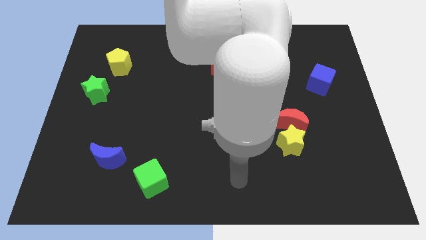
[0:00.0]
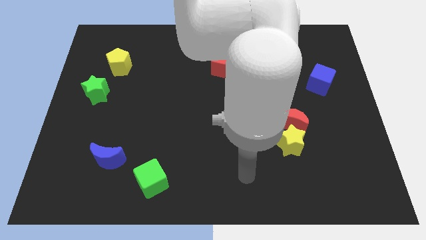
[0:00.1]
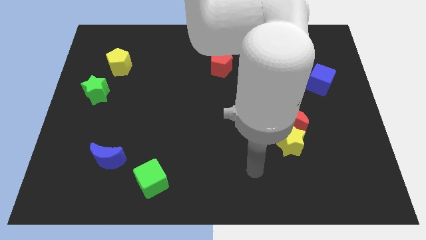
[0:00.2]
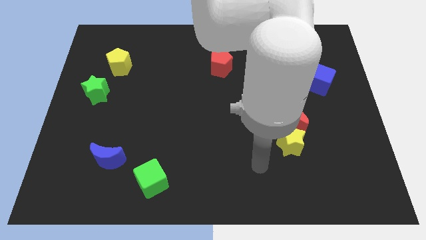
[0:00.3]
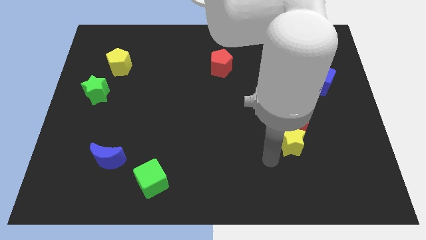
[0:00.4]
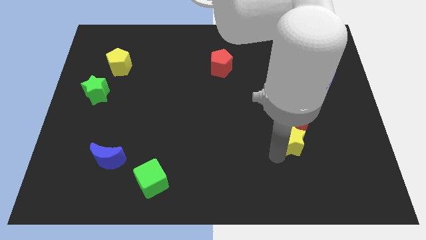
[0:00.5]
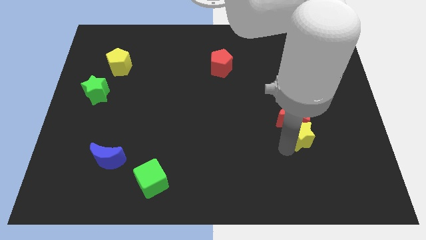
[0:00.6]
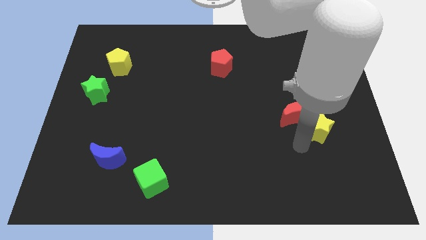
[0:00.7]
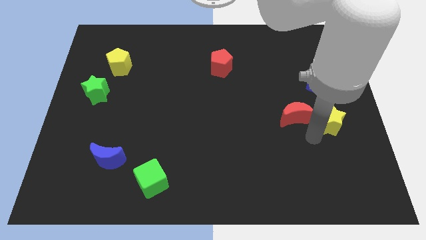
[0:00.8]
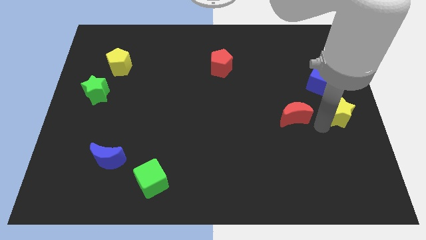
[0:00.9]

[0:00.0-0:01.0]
move the red moon away from the yellow star

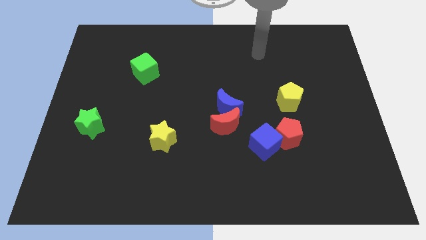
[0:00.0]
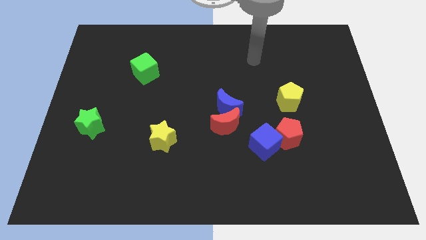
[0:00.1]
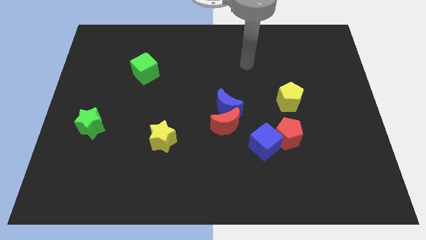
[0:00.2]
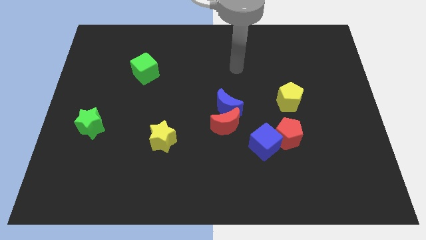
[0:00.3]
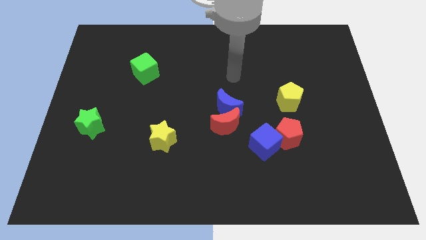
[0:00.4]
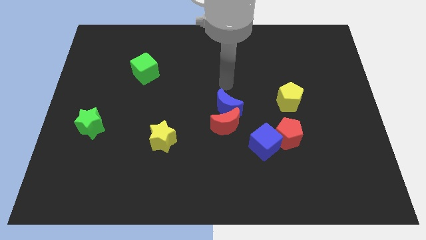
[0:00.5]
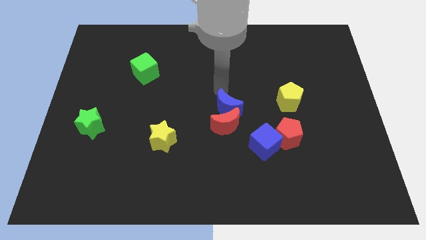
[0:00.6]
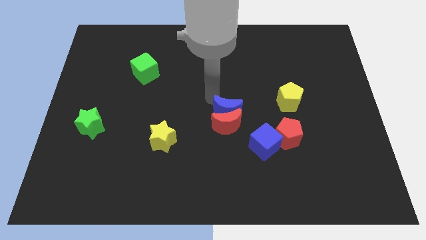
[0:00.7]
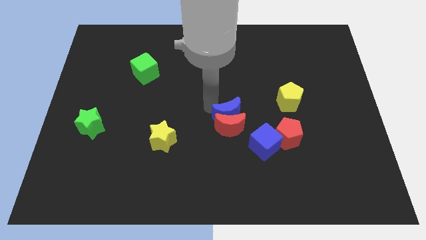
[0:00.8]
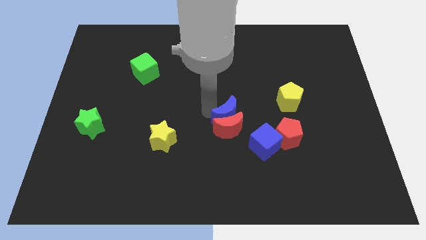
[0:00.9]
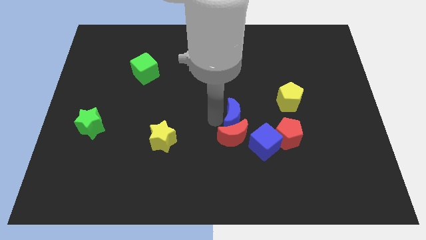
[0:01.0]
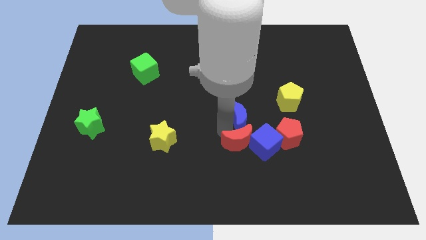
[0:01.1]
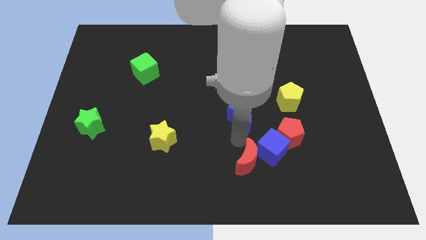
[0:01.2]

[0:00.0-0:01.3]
move the blue moon away from the red moon

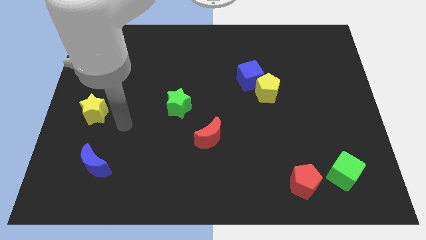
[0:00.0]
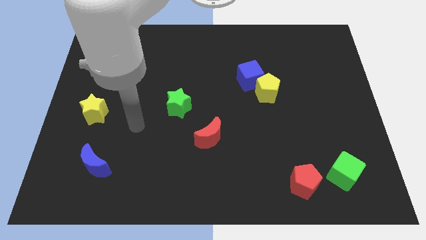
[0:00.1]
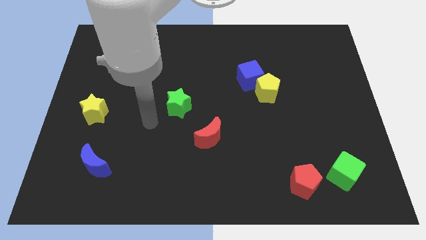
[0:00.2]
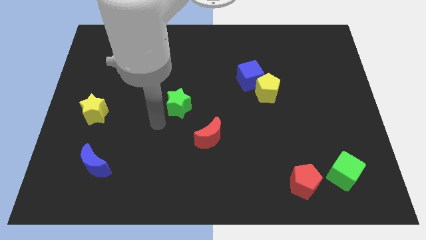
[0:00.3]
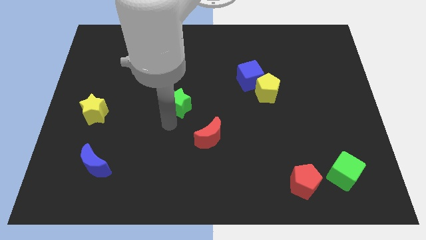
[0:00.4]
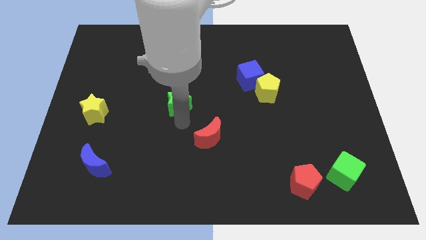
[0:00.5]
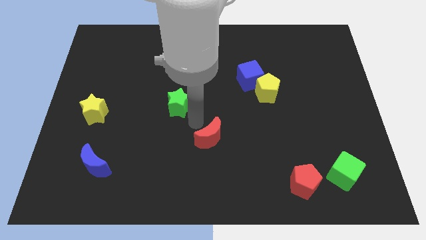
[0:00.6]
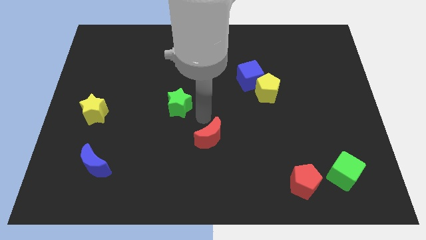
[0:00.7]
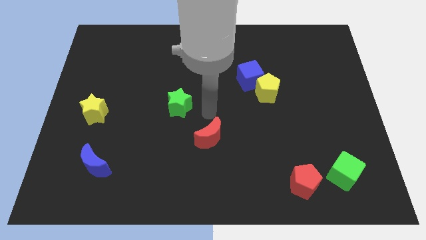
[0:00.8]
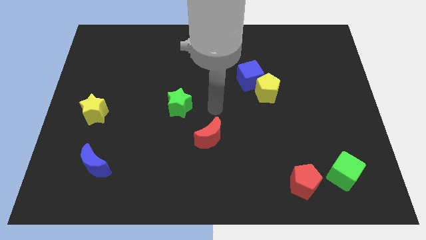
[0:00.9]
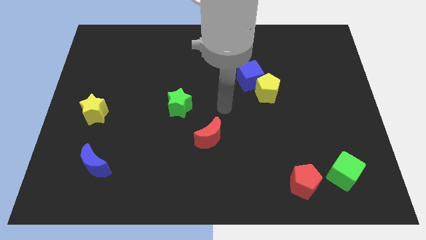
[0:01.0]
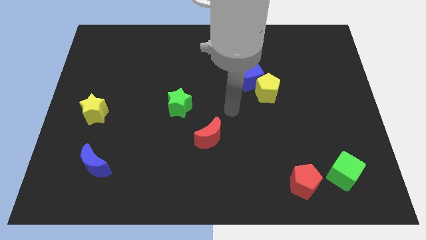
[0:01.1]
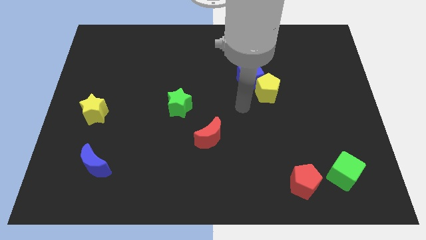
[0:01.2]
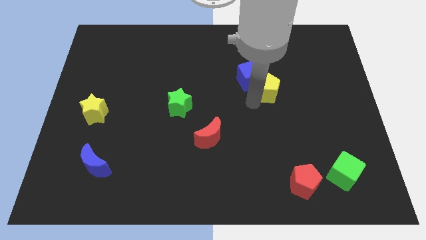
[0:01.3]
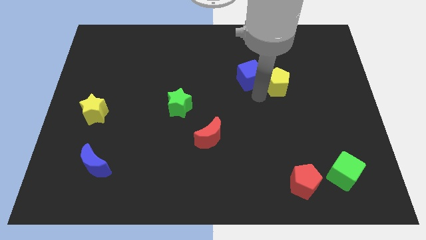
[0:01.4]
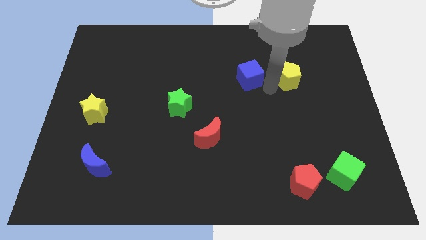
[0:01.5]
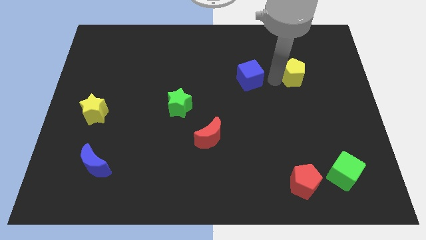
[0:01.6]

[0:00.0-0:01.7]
pull the blue cube apart from the yellow pentagon

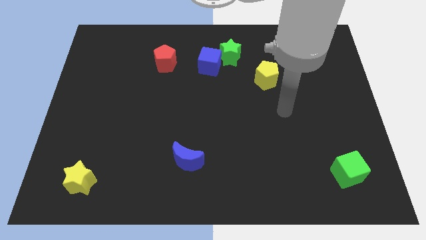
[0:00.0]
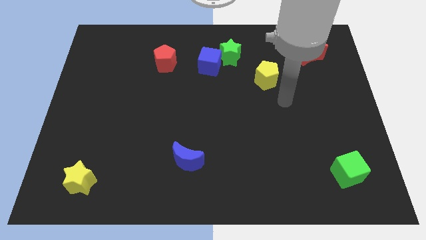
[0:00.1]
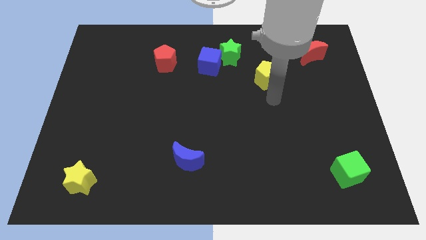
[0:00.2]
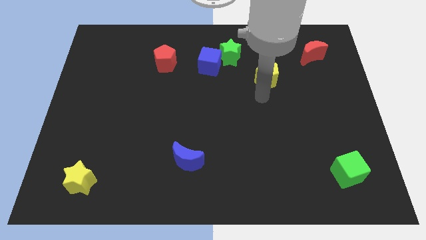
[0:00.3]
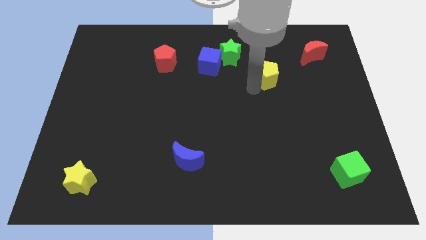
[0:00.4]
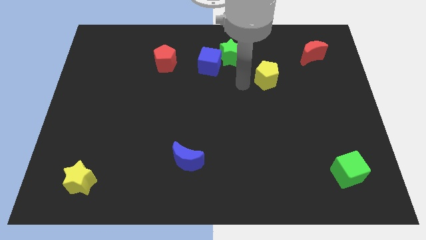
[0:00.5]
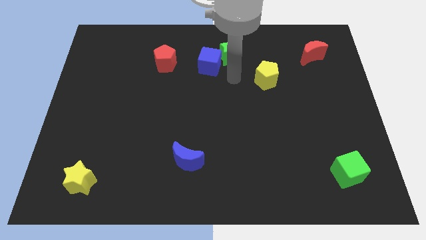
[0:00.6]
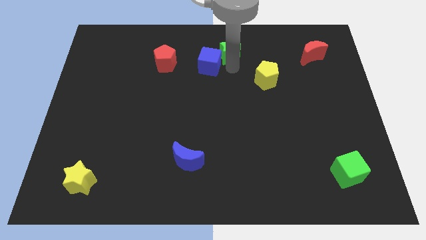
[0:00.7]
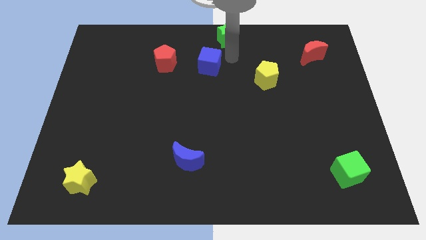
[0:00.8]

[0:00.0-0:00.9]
pull the blue cube apart from the green star

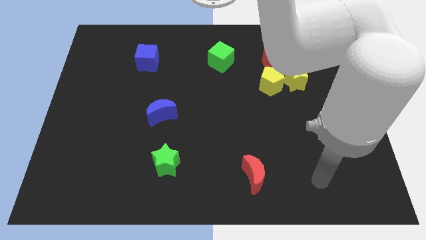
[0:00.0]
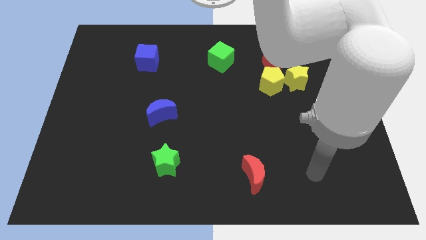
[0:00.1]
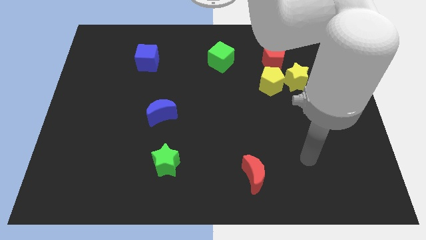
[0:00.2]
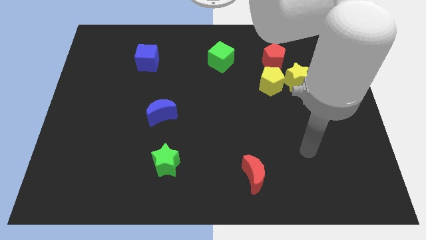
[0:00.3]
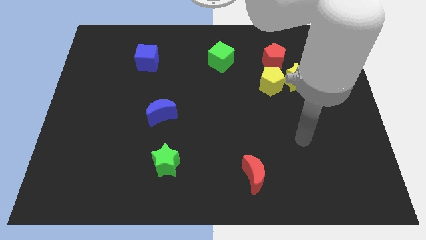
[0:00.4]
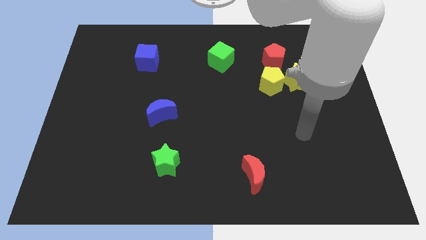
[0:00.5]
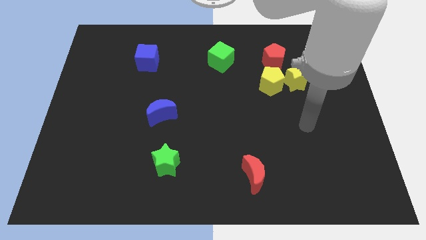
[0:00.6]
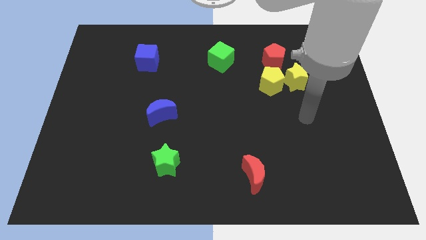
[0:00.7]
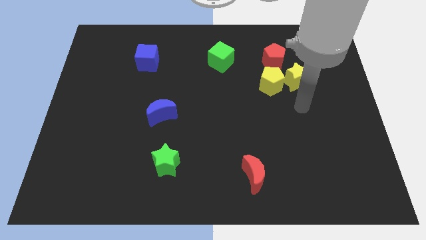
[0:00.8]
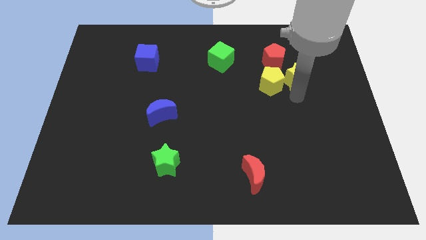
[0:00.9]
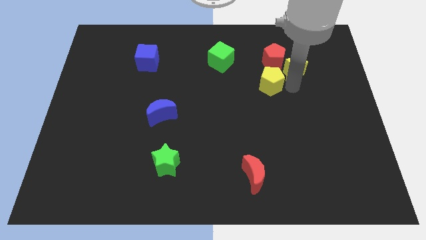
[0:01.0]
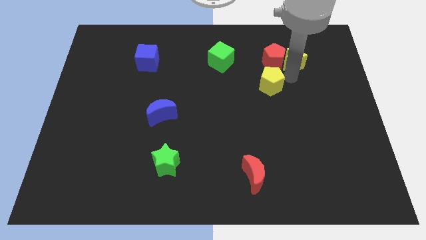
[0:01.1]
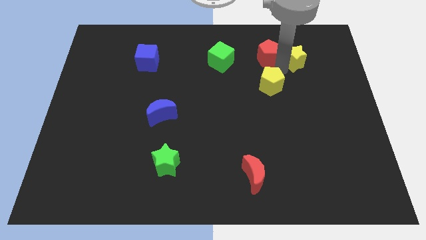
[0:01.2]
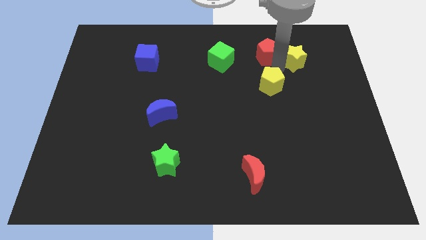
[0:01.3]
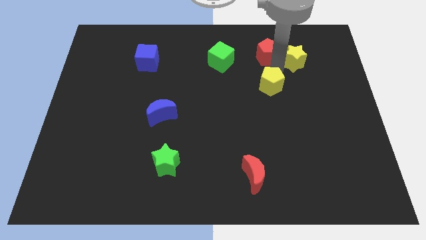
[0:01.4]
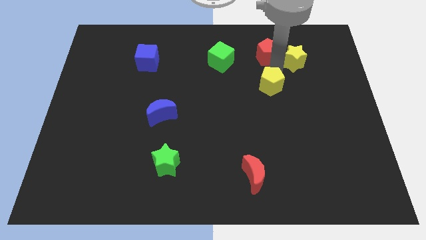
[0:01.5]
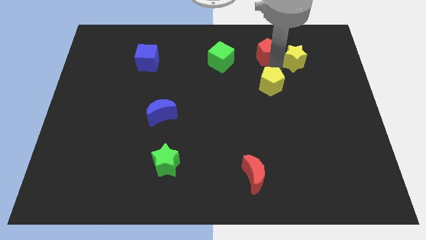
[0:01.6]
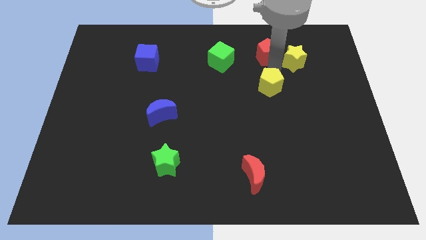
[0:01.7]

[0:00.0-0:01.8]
move the yellow pentagon away from the yellow star and red pentagon

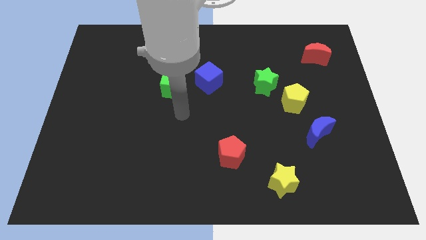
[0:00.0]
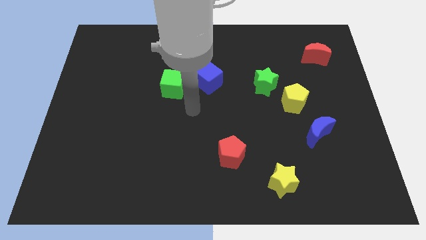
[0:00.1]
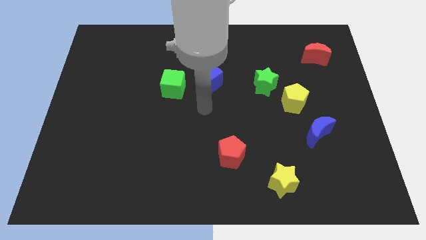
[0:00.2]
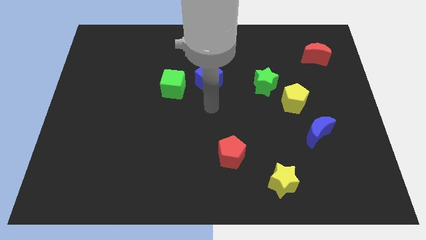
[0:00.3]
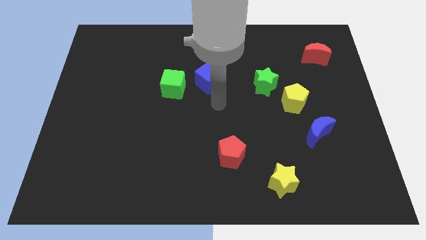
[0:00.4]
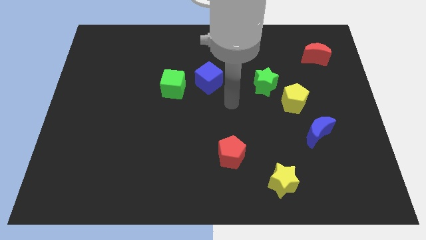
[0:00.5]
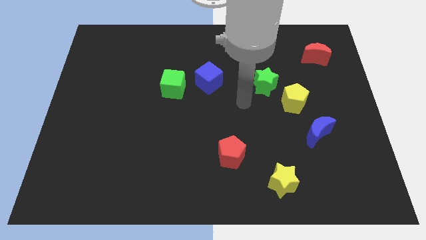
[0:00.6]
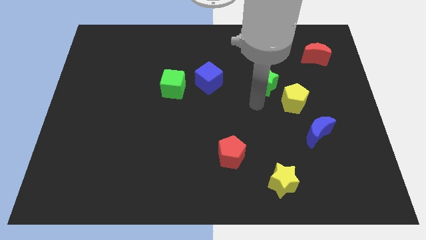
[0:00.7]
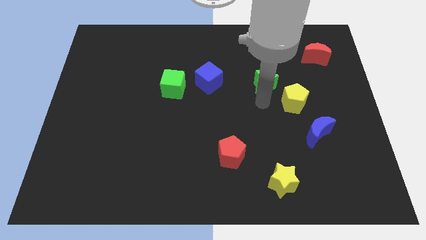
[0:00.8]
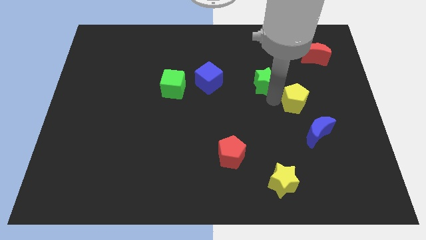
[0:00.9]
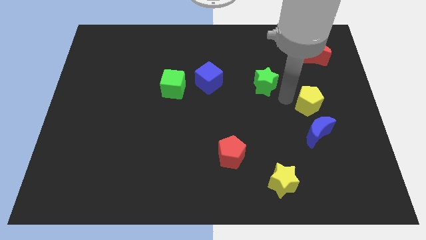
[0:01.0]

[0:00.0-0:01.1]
pull the green star apart from the yellow pentagon

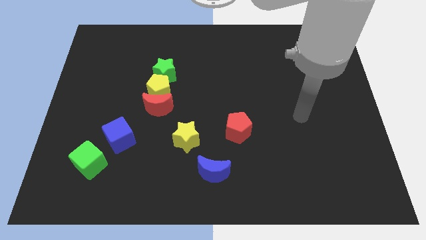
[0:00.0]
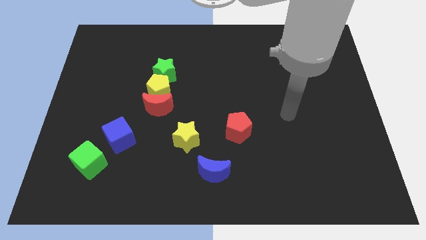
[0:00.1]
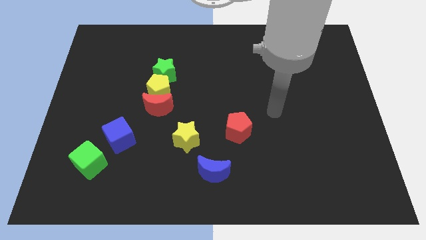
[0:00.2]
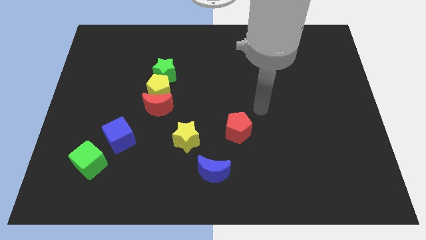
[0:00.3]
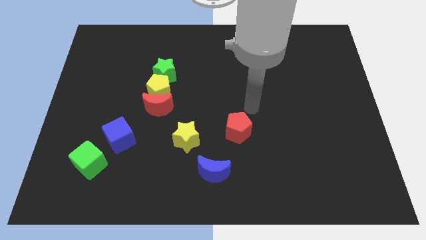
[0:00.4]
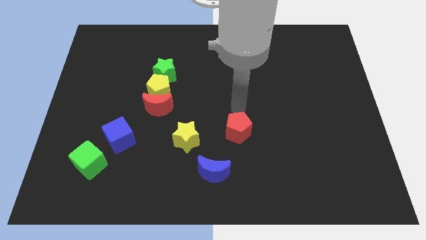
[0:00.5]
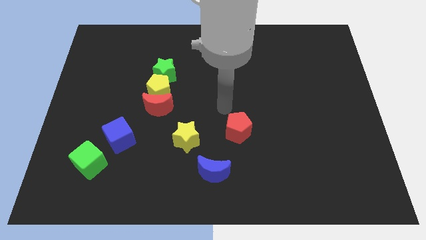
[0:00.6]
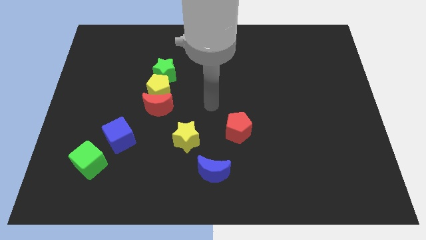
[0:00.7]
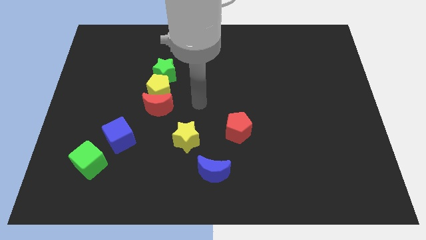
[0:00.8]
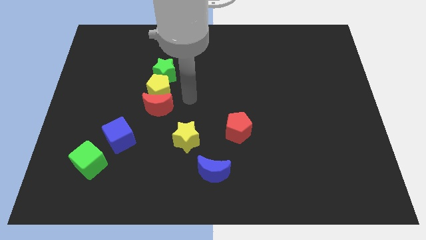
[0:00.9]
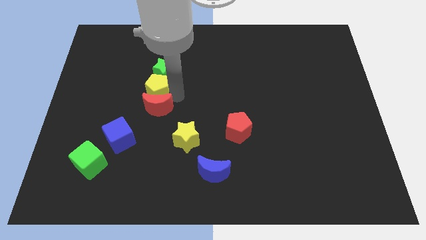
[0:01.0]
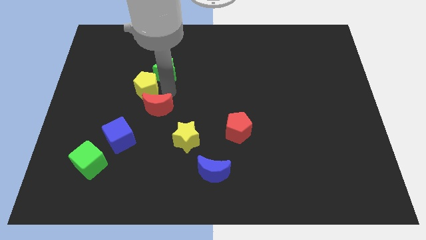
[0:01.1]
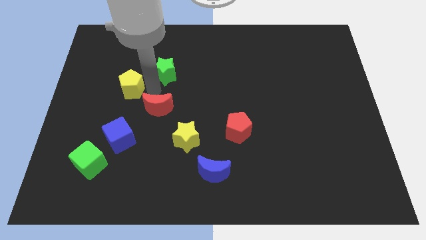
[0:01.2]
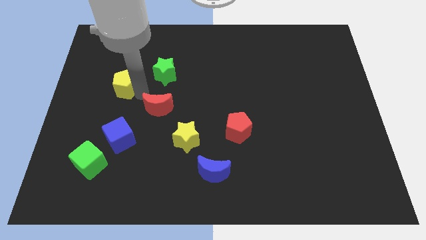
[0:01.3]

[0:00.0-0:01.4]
separate the red moon from the yellow pentagon

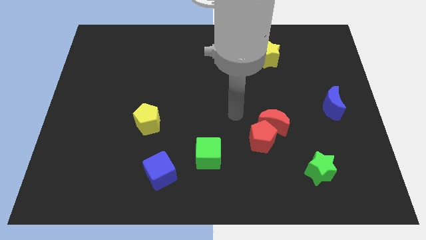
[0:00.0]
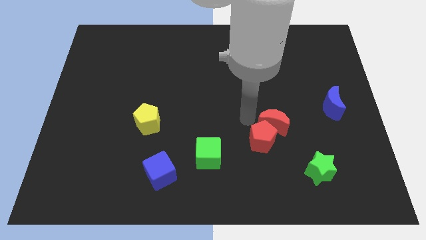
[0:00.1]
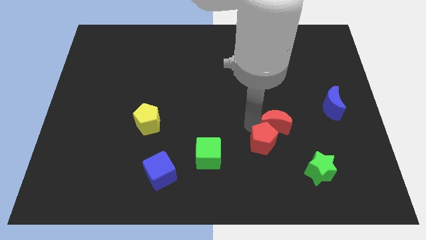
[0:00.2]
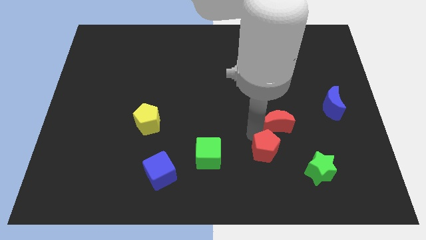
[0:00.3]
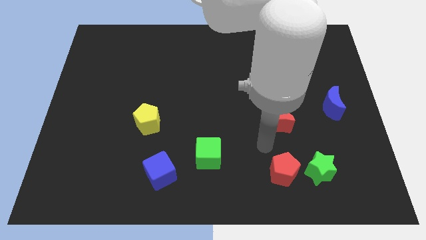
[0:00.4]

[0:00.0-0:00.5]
pull the red moon apart from the red pentagon
